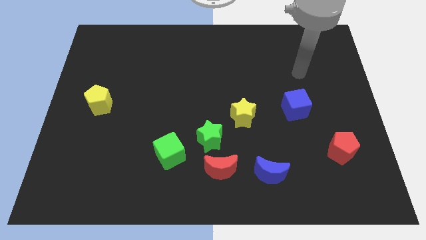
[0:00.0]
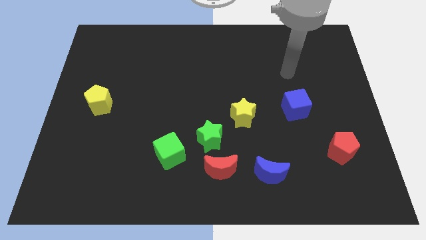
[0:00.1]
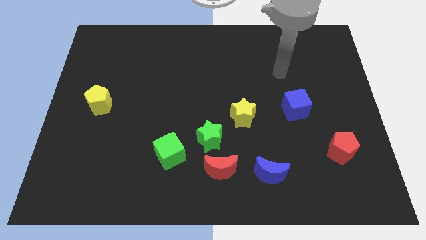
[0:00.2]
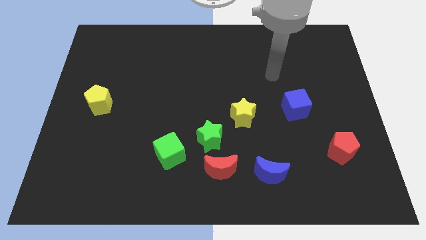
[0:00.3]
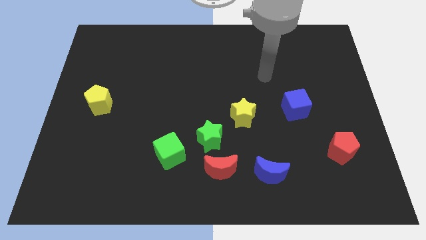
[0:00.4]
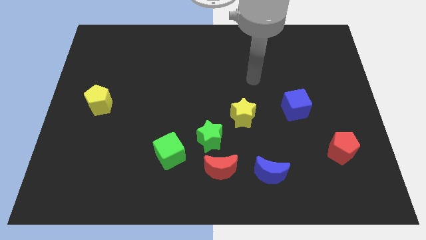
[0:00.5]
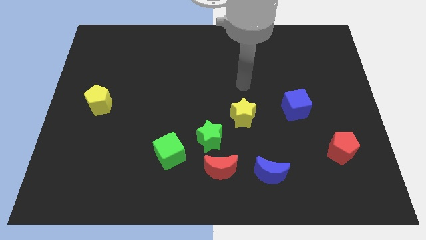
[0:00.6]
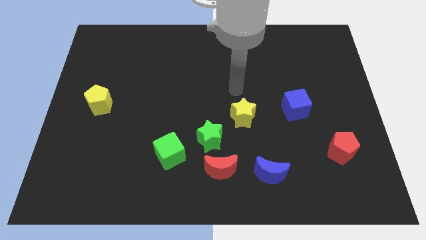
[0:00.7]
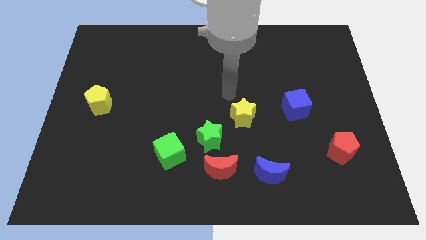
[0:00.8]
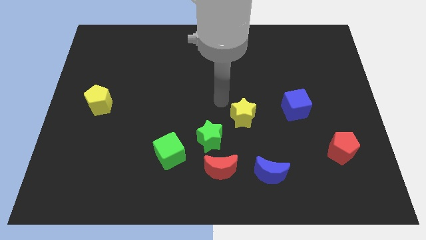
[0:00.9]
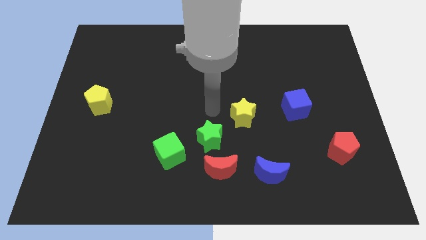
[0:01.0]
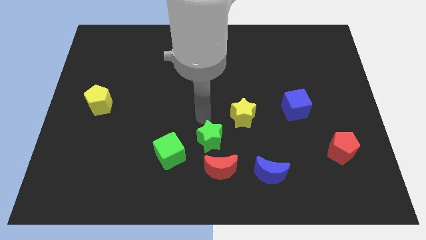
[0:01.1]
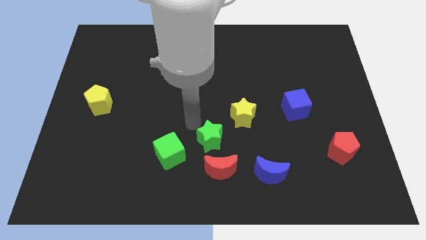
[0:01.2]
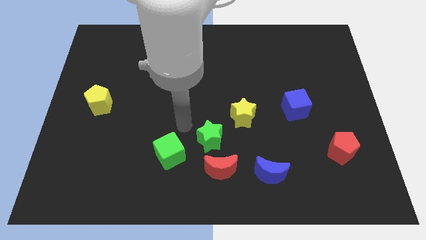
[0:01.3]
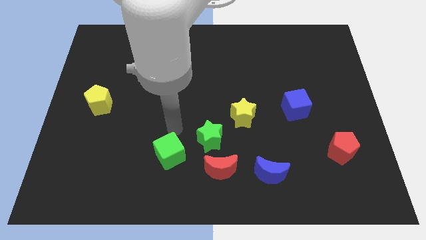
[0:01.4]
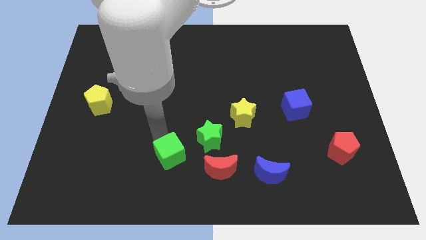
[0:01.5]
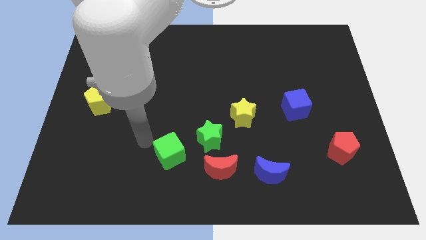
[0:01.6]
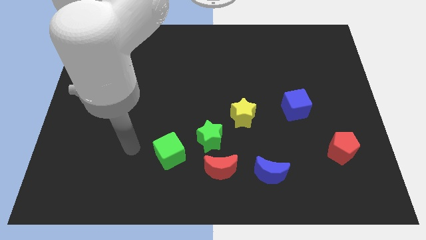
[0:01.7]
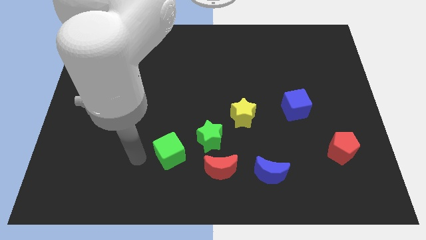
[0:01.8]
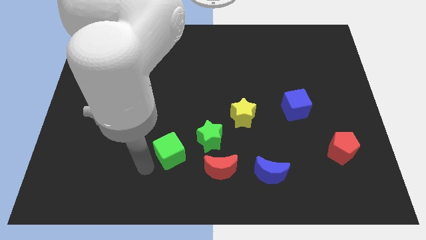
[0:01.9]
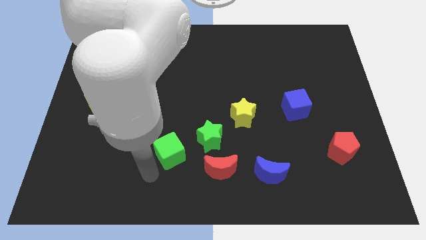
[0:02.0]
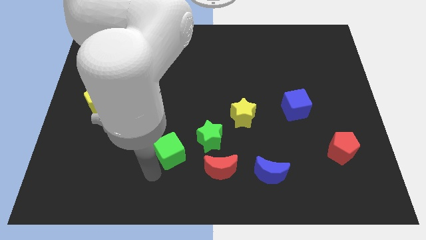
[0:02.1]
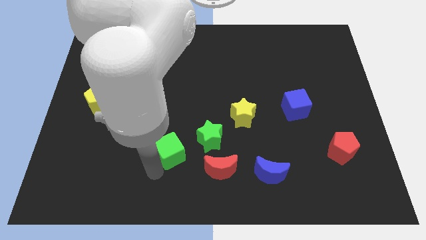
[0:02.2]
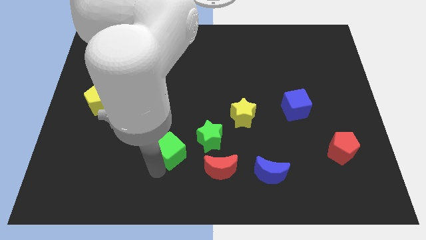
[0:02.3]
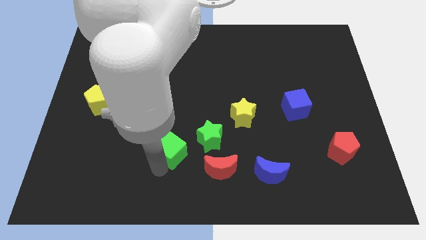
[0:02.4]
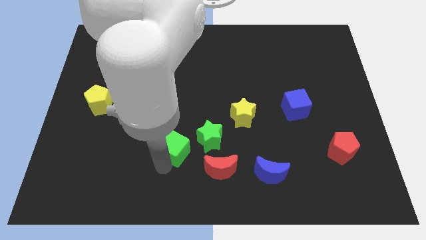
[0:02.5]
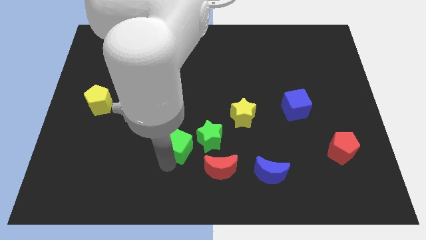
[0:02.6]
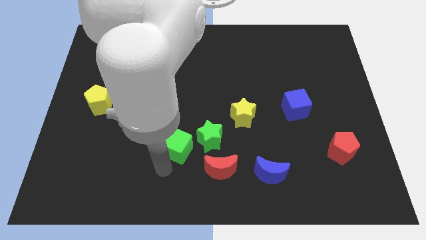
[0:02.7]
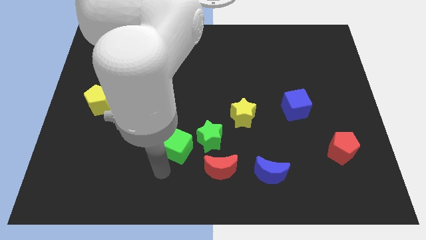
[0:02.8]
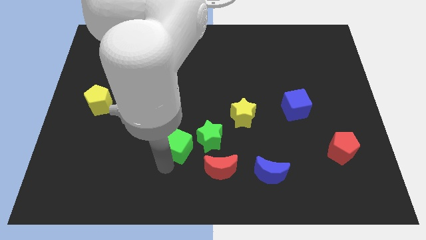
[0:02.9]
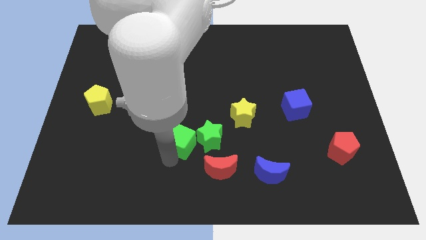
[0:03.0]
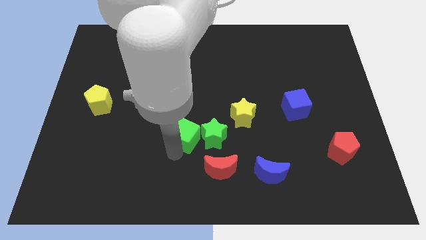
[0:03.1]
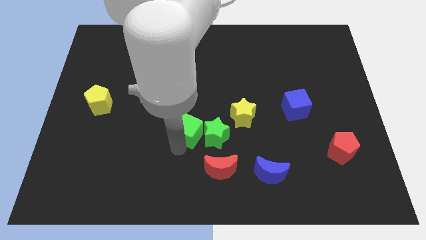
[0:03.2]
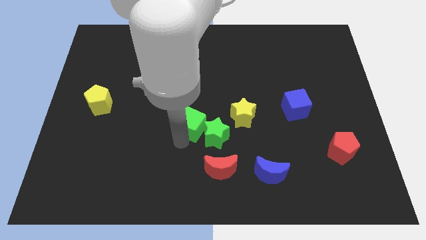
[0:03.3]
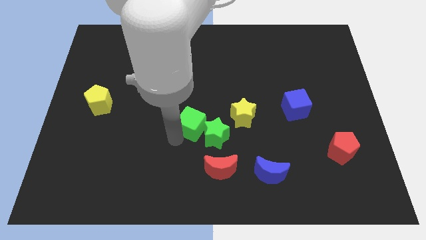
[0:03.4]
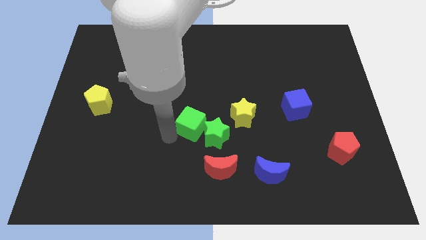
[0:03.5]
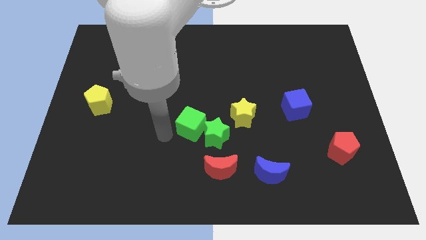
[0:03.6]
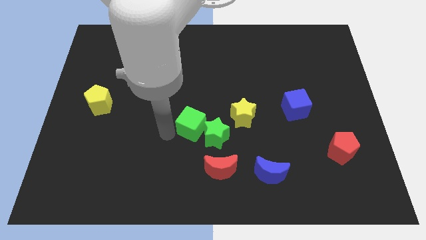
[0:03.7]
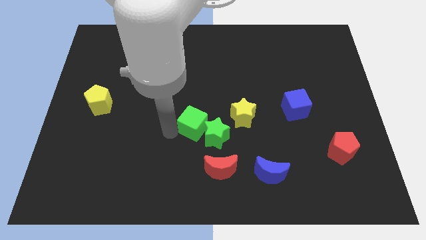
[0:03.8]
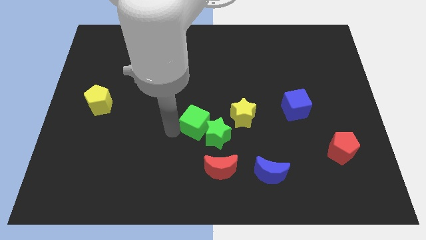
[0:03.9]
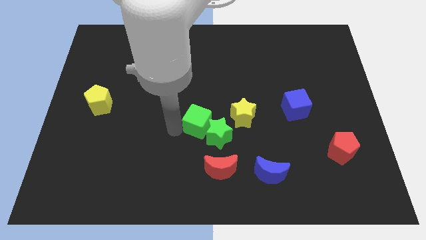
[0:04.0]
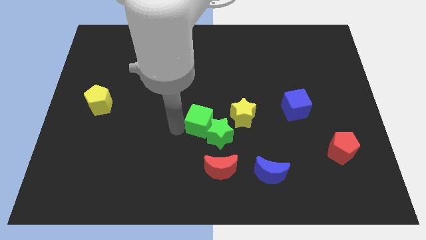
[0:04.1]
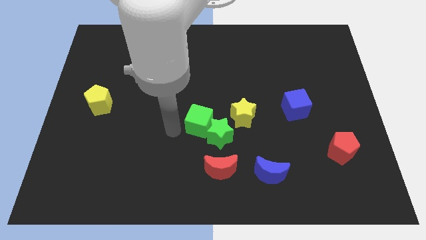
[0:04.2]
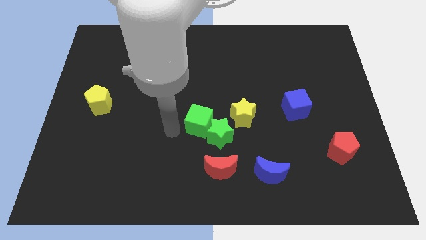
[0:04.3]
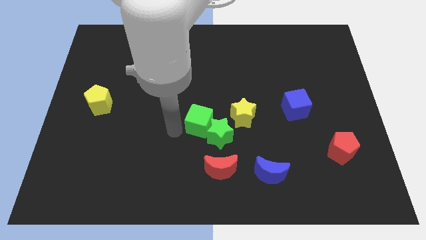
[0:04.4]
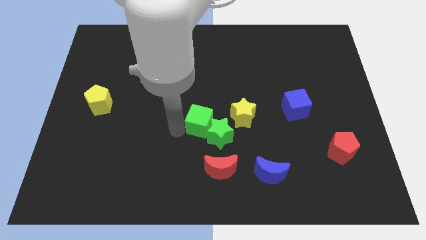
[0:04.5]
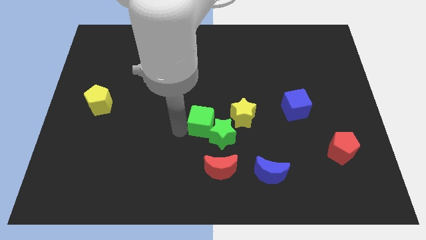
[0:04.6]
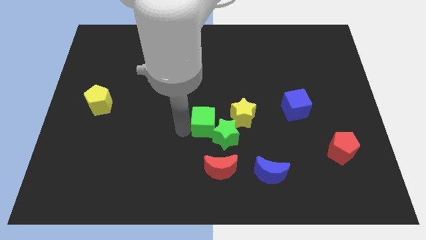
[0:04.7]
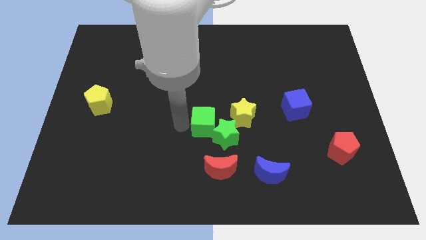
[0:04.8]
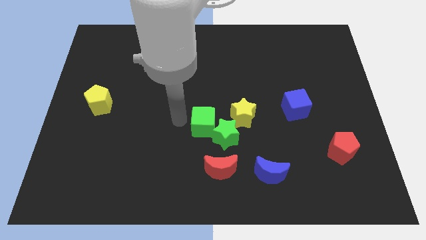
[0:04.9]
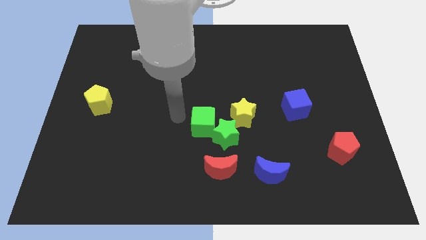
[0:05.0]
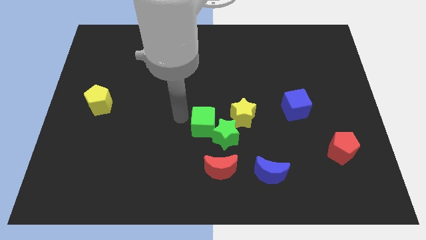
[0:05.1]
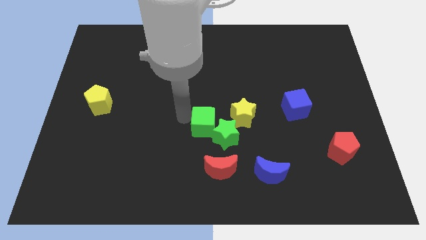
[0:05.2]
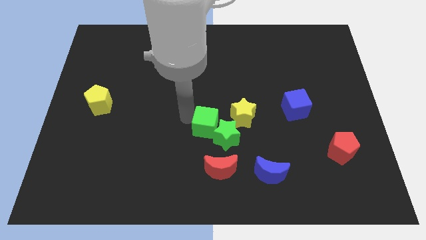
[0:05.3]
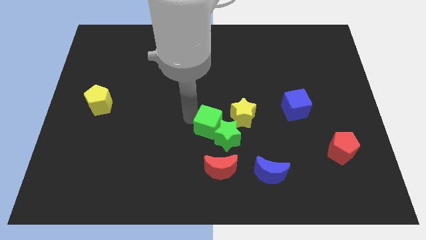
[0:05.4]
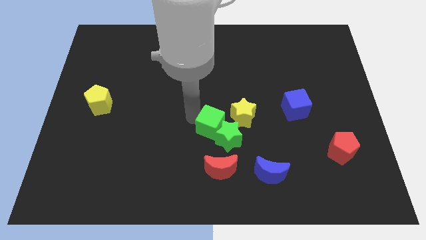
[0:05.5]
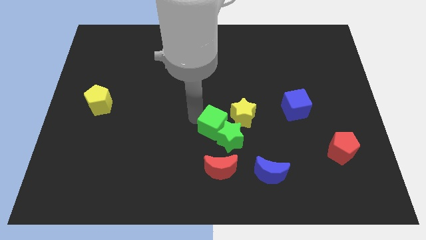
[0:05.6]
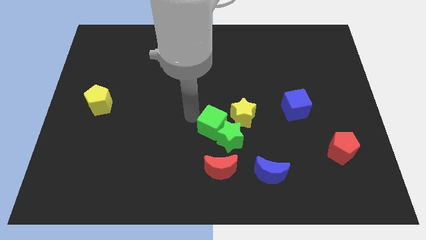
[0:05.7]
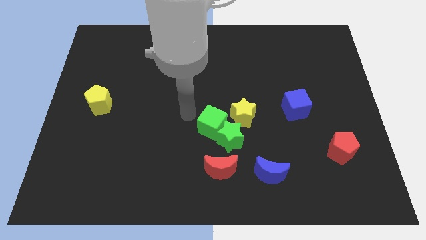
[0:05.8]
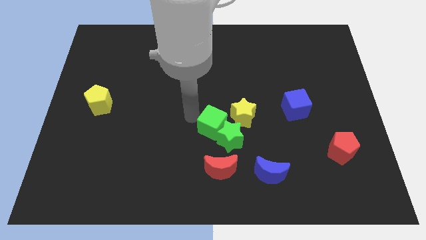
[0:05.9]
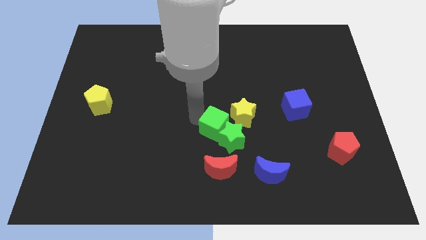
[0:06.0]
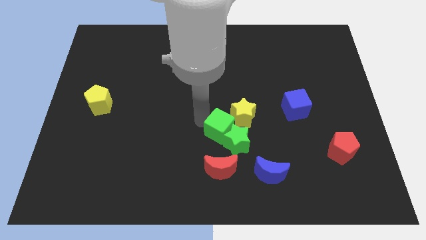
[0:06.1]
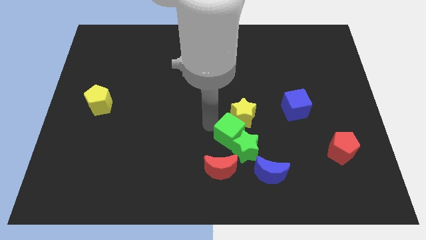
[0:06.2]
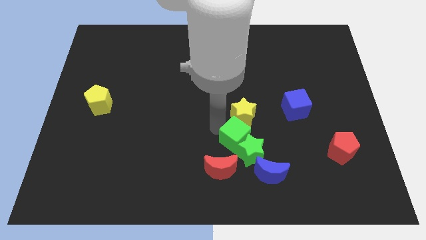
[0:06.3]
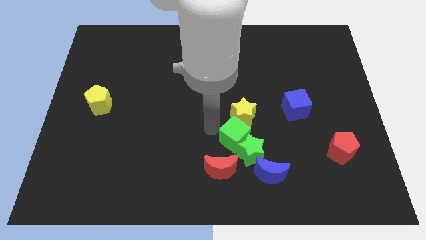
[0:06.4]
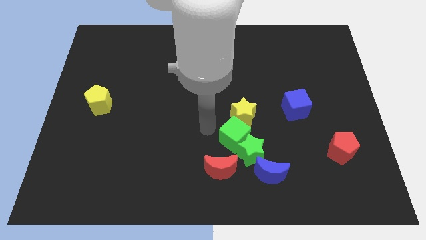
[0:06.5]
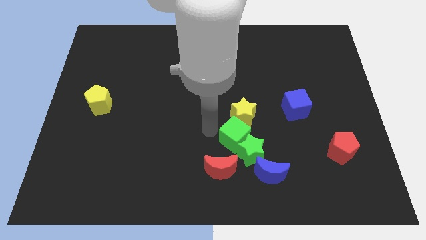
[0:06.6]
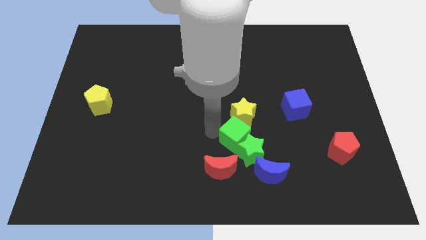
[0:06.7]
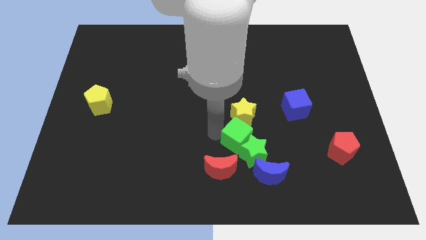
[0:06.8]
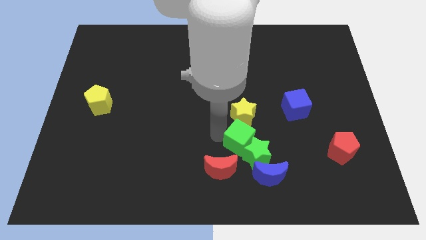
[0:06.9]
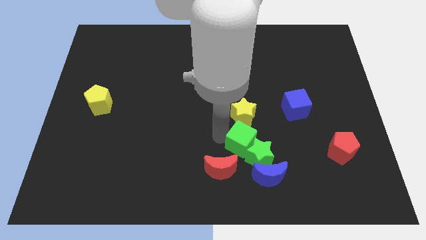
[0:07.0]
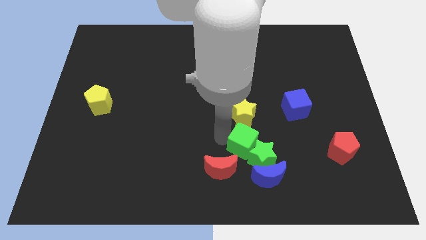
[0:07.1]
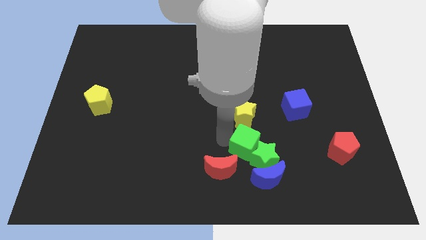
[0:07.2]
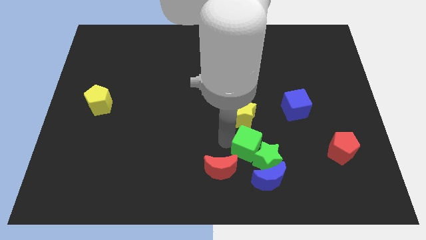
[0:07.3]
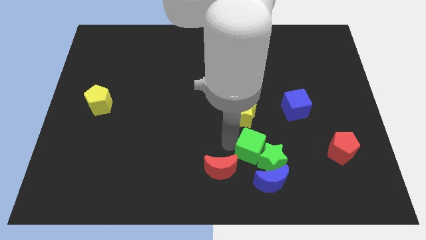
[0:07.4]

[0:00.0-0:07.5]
move the green cube to the right side of the red moon

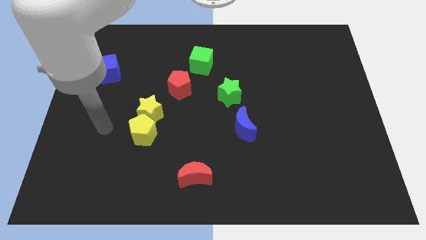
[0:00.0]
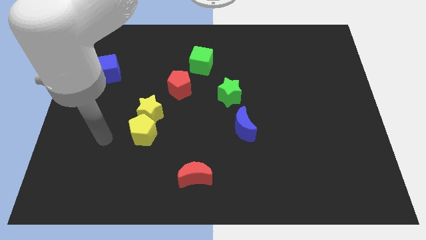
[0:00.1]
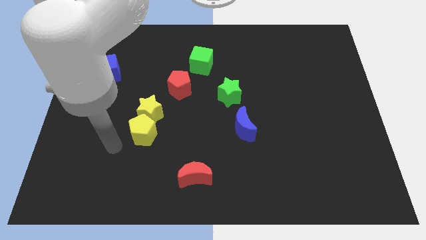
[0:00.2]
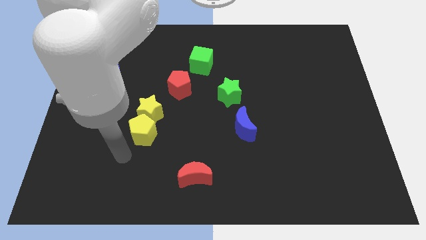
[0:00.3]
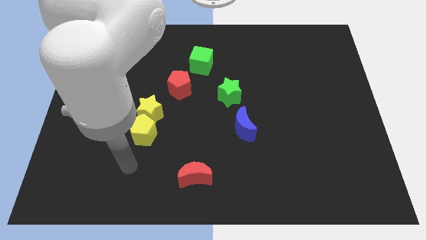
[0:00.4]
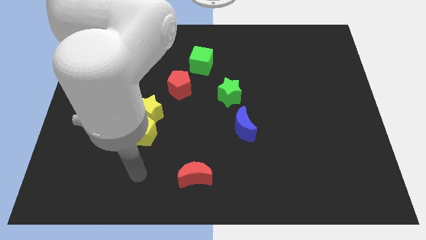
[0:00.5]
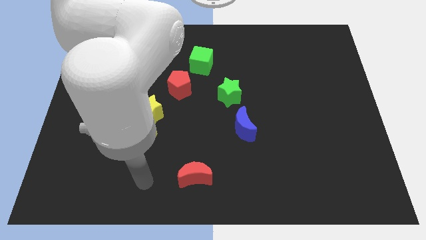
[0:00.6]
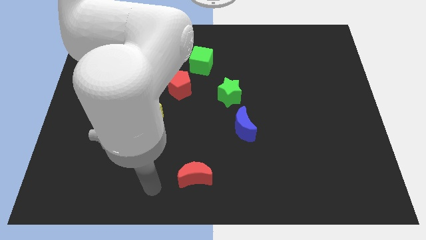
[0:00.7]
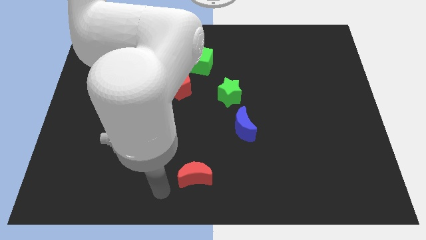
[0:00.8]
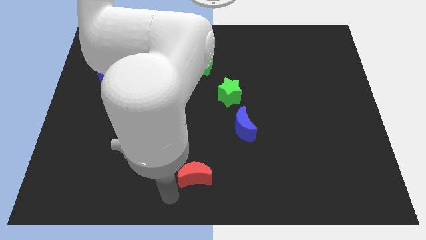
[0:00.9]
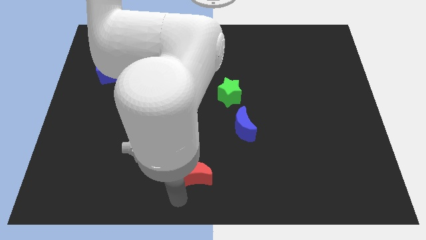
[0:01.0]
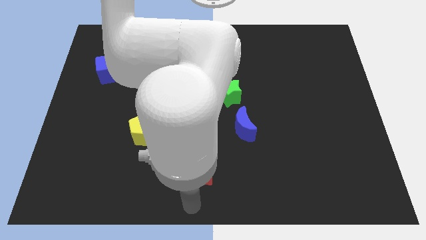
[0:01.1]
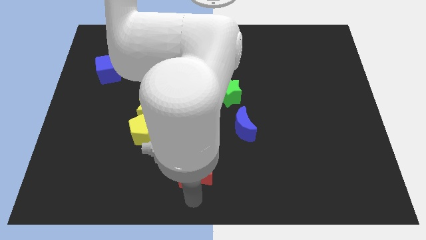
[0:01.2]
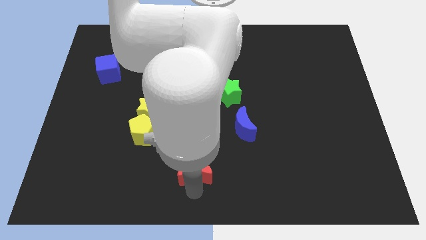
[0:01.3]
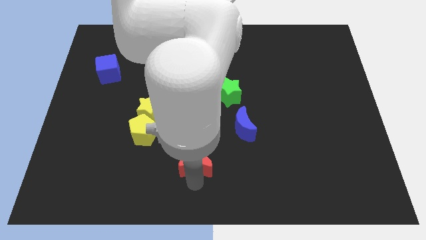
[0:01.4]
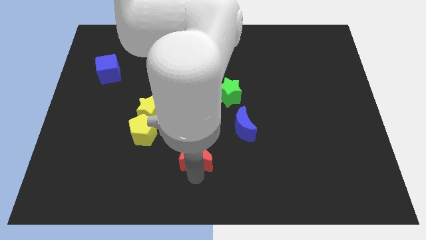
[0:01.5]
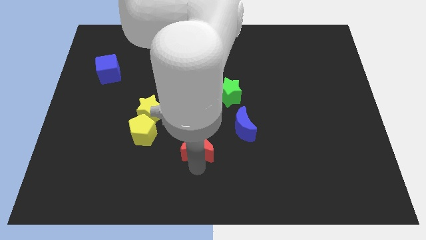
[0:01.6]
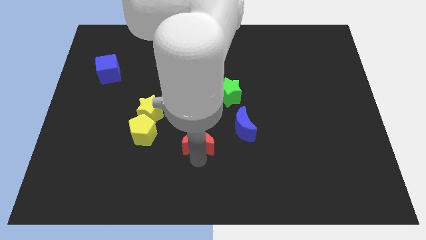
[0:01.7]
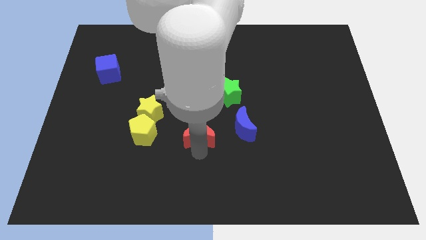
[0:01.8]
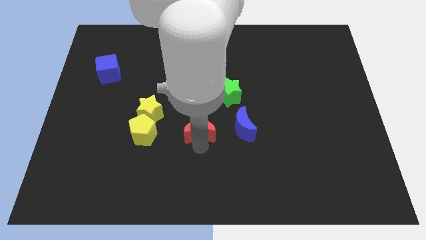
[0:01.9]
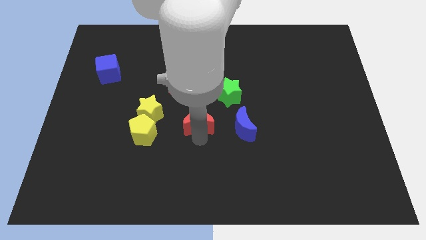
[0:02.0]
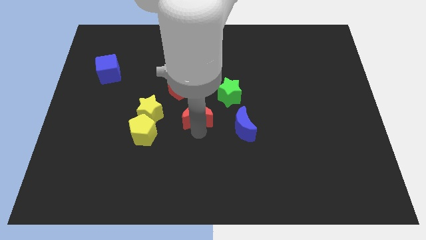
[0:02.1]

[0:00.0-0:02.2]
slide the red moon to the bottom right of the red pentagon
